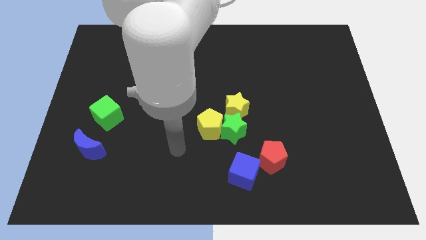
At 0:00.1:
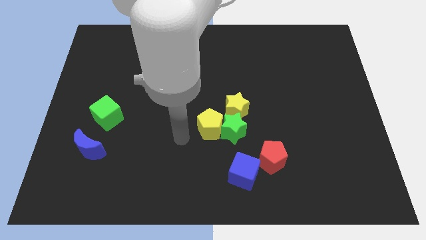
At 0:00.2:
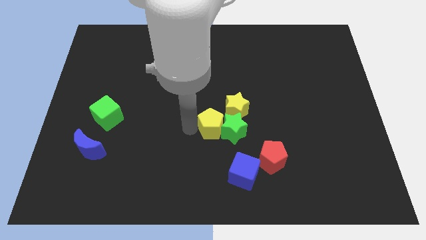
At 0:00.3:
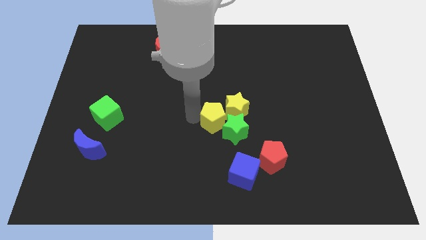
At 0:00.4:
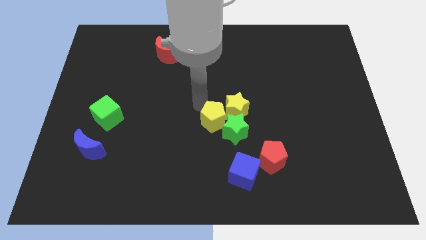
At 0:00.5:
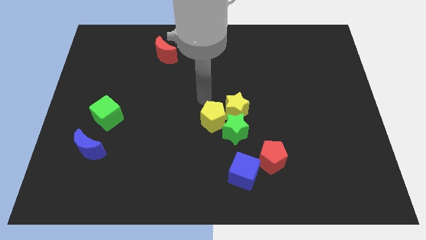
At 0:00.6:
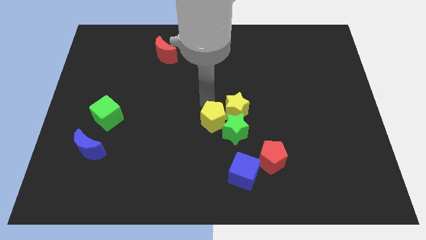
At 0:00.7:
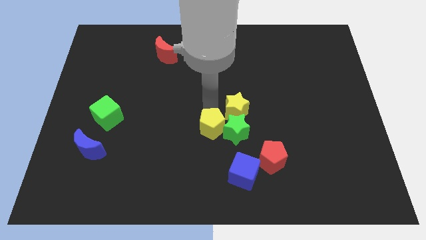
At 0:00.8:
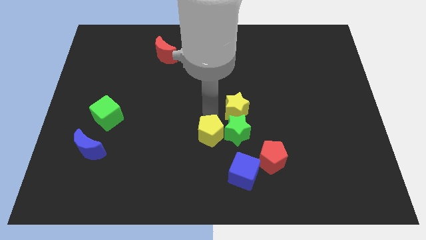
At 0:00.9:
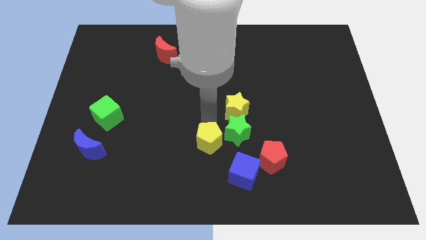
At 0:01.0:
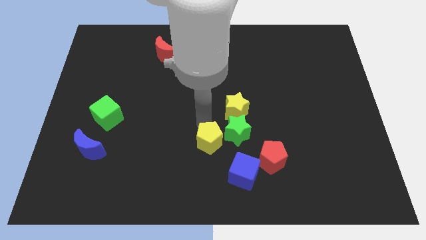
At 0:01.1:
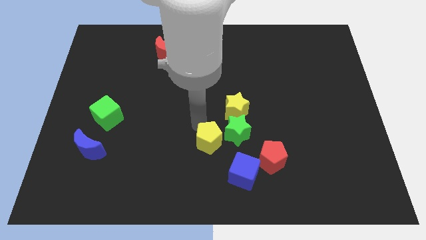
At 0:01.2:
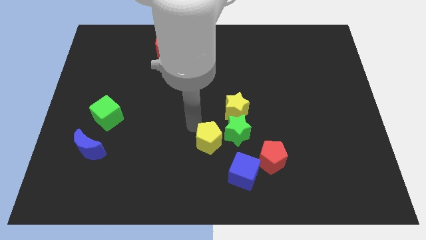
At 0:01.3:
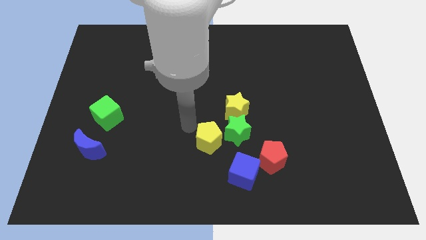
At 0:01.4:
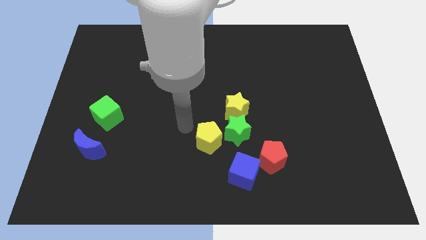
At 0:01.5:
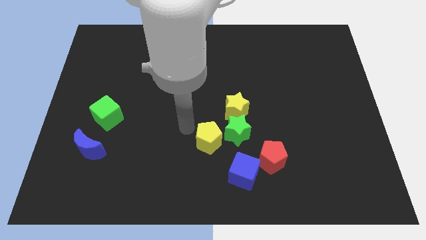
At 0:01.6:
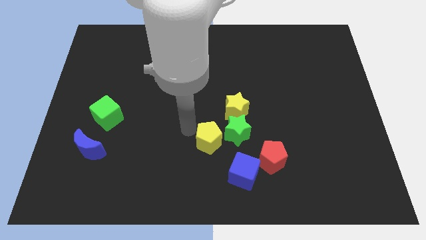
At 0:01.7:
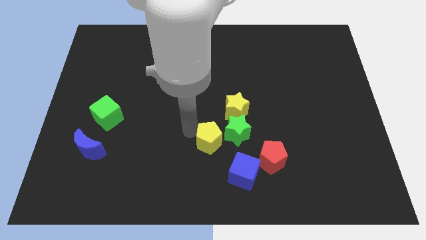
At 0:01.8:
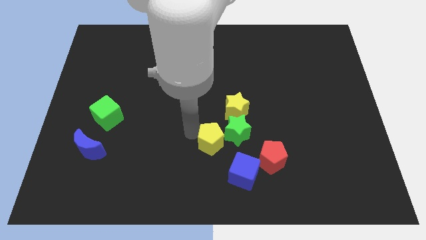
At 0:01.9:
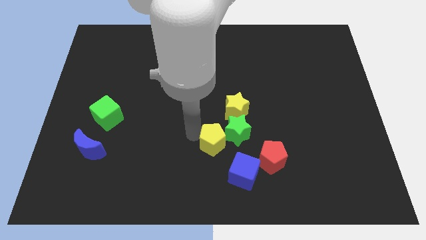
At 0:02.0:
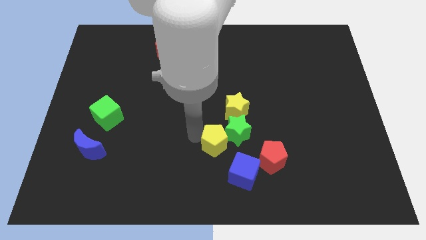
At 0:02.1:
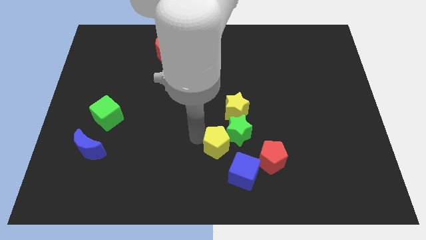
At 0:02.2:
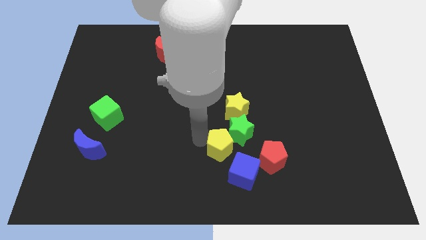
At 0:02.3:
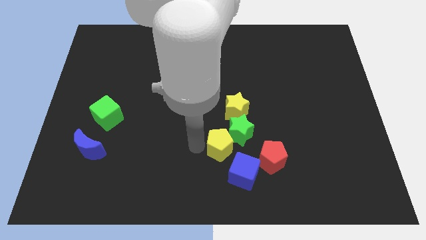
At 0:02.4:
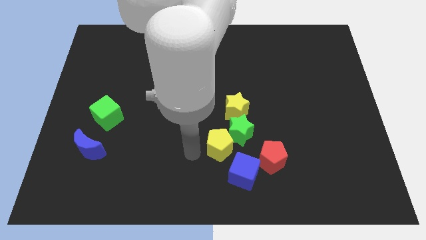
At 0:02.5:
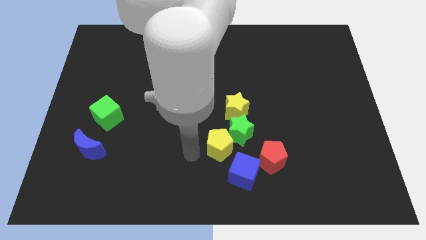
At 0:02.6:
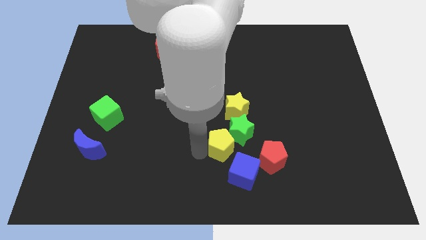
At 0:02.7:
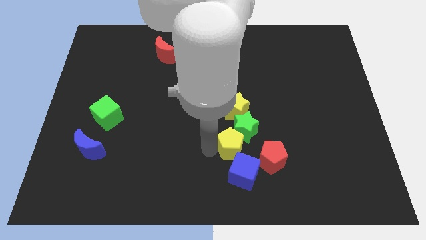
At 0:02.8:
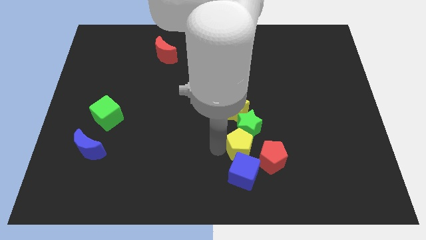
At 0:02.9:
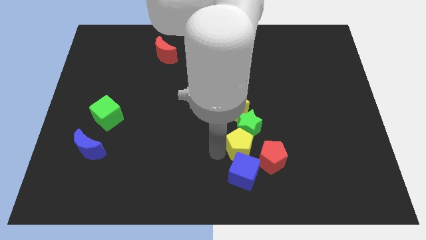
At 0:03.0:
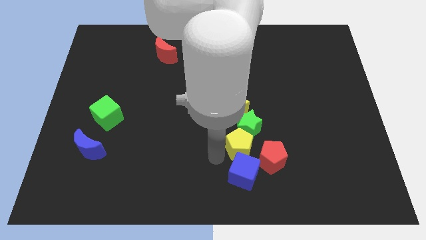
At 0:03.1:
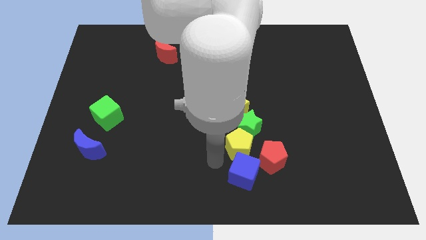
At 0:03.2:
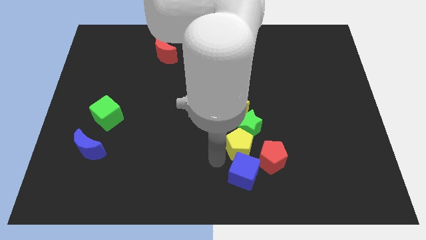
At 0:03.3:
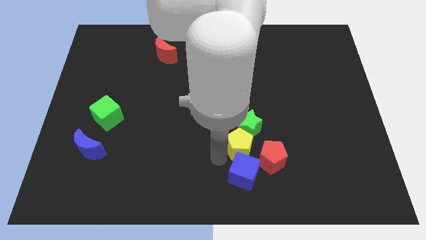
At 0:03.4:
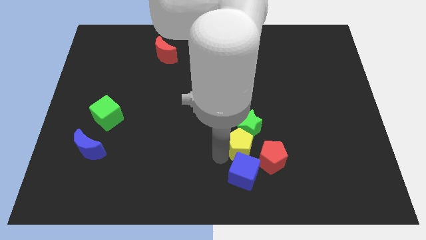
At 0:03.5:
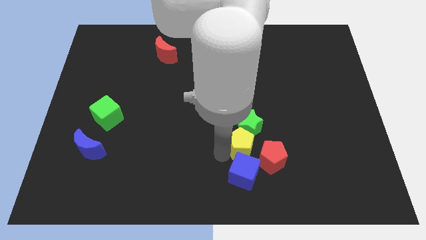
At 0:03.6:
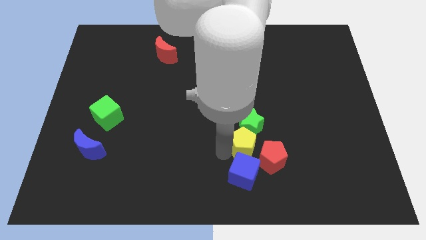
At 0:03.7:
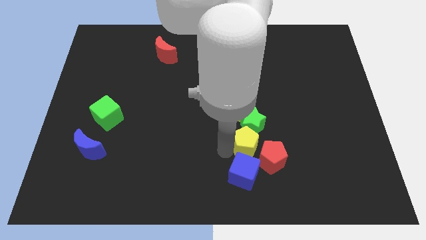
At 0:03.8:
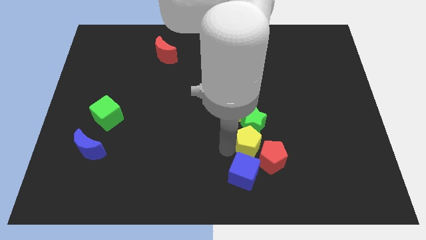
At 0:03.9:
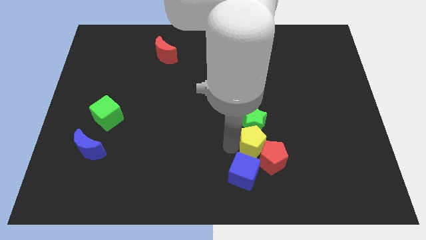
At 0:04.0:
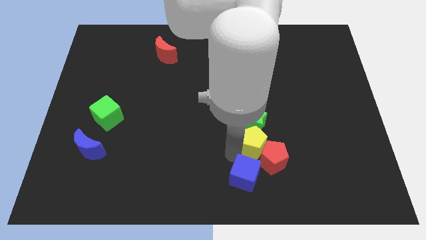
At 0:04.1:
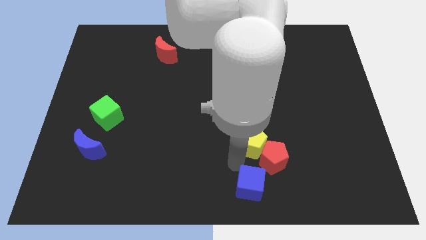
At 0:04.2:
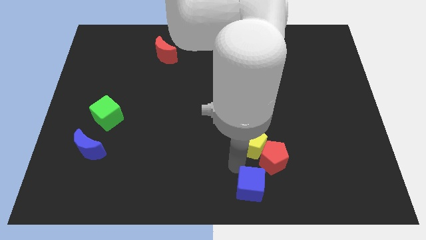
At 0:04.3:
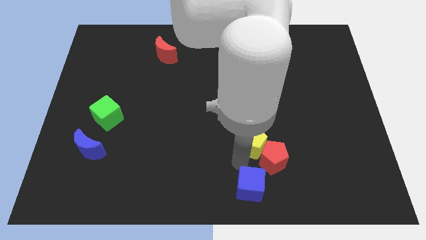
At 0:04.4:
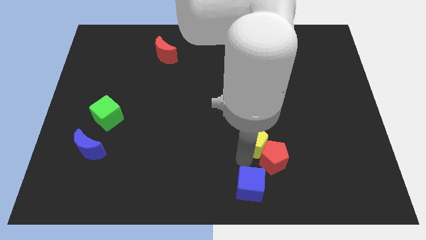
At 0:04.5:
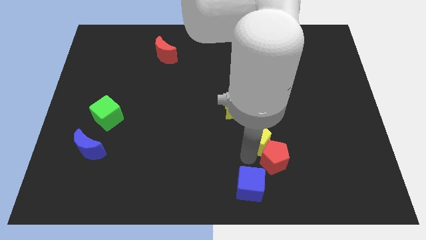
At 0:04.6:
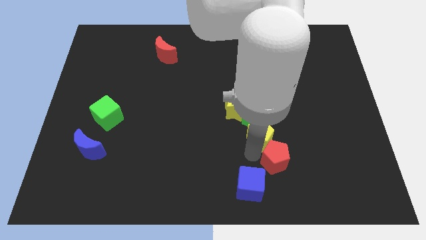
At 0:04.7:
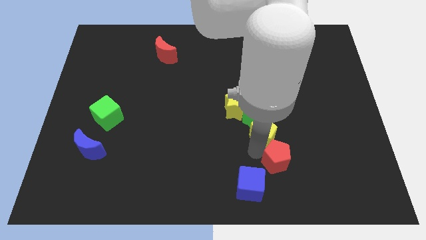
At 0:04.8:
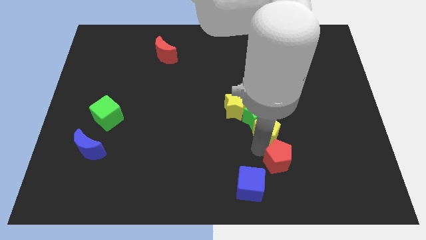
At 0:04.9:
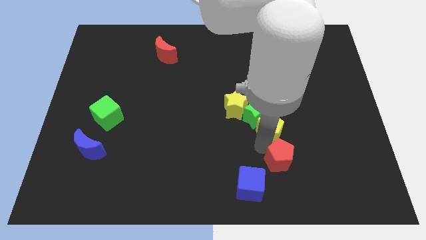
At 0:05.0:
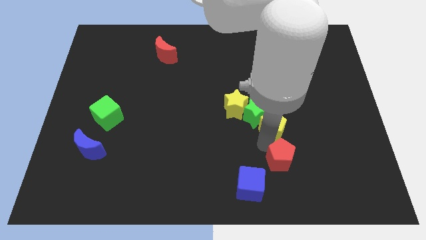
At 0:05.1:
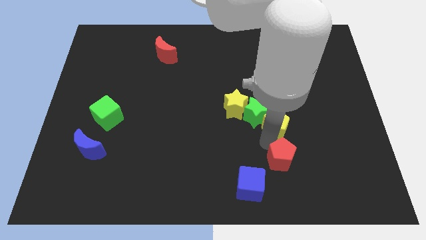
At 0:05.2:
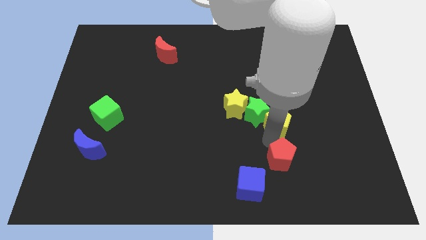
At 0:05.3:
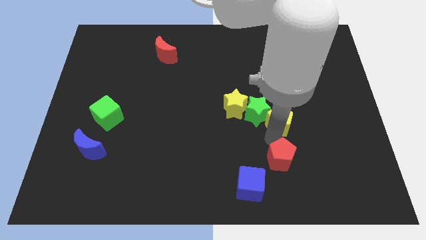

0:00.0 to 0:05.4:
push the yellow pentagon just right of the yellow star

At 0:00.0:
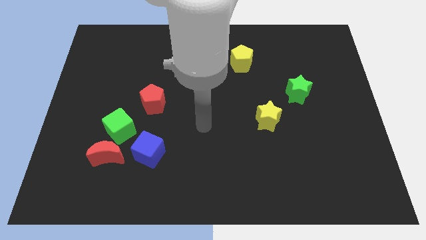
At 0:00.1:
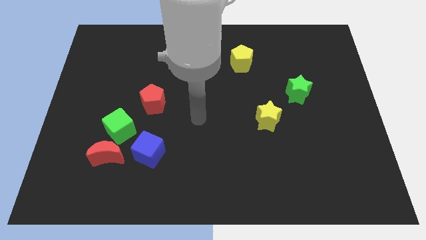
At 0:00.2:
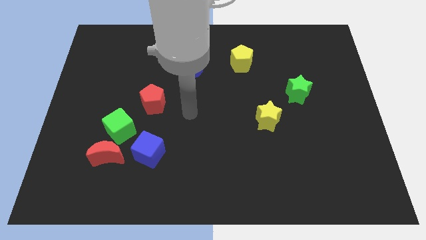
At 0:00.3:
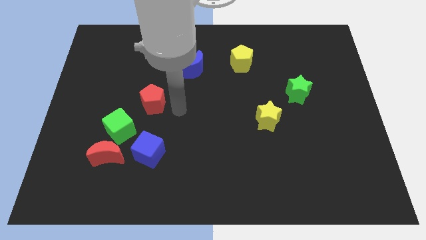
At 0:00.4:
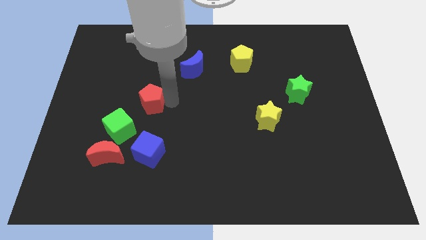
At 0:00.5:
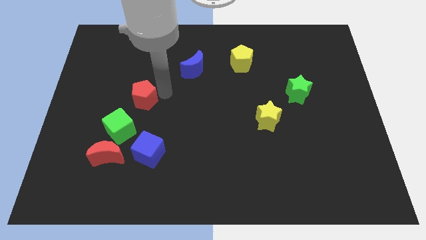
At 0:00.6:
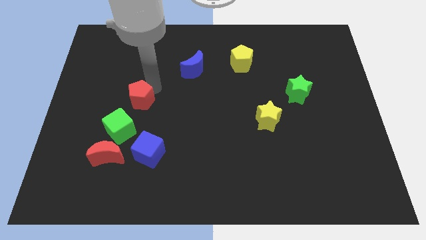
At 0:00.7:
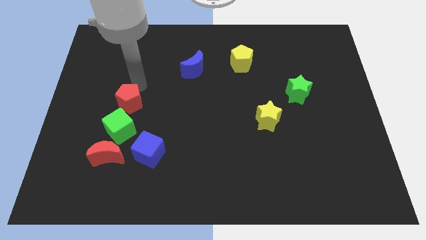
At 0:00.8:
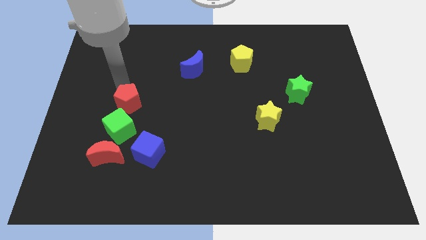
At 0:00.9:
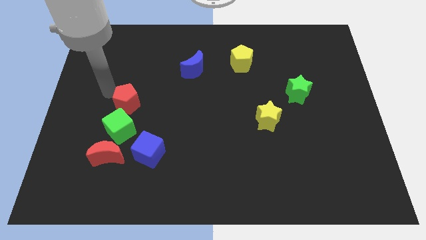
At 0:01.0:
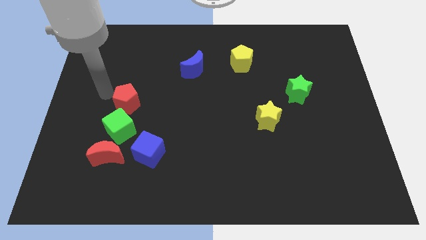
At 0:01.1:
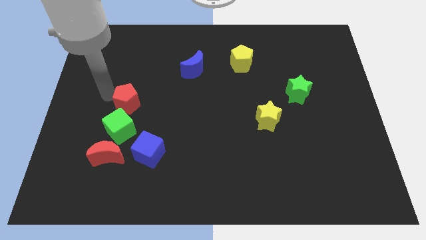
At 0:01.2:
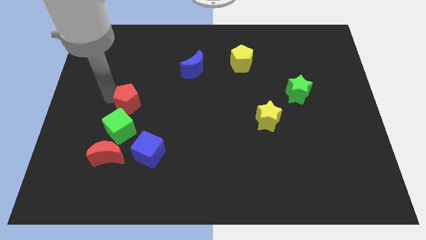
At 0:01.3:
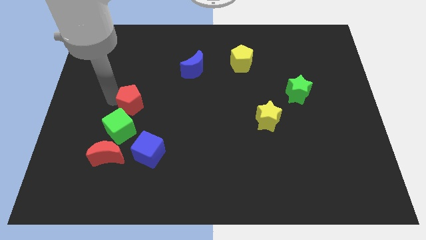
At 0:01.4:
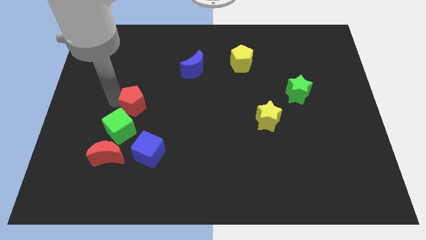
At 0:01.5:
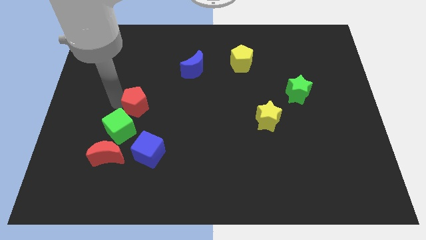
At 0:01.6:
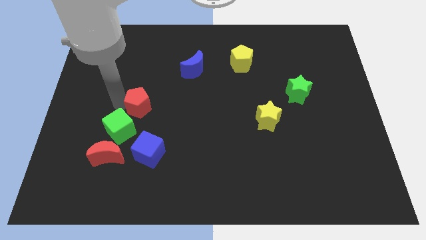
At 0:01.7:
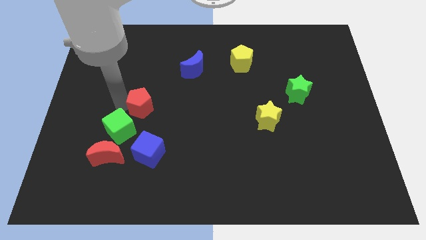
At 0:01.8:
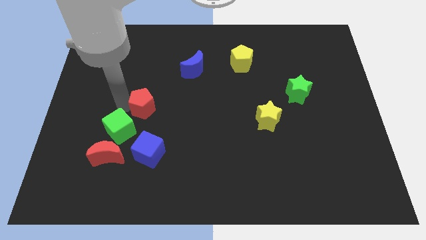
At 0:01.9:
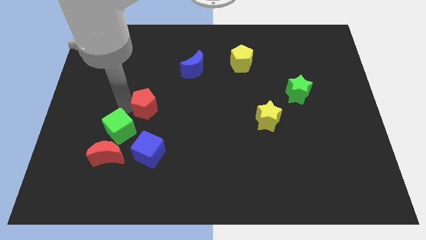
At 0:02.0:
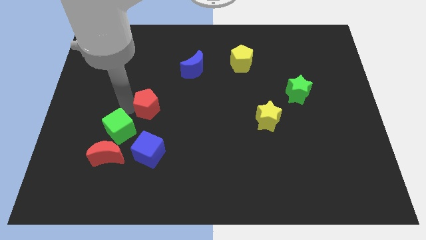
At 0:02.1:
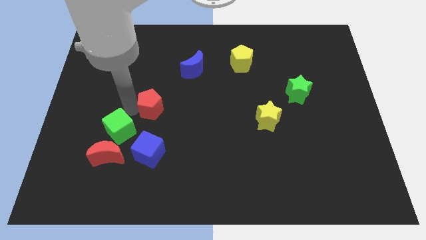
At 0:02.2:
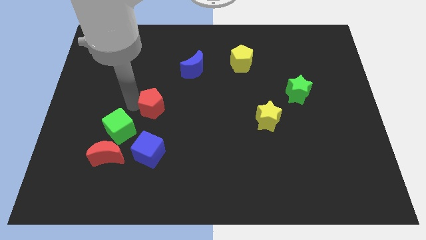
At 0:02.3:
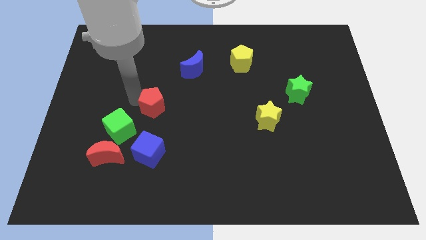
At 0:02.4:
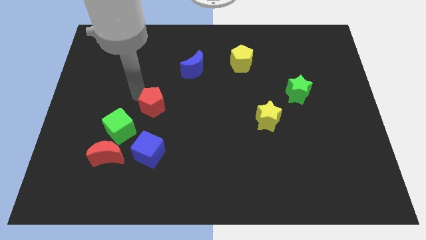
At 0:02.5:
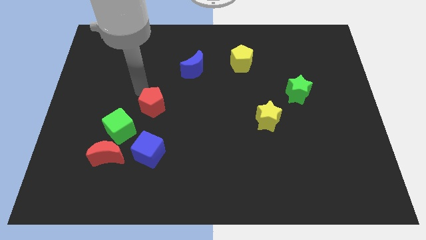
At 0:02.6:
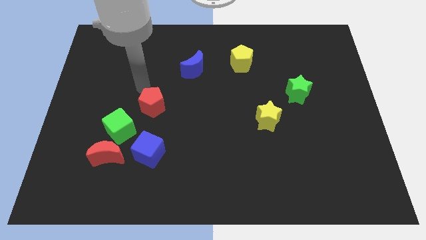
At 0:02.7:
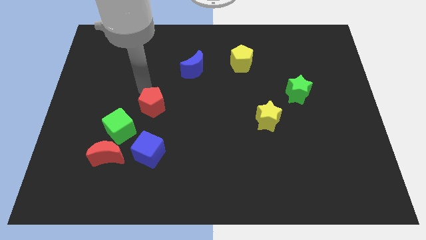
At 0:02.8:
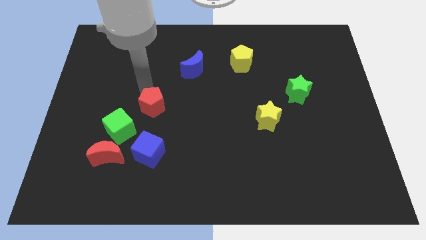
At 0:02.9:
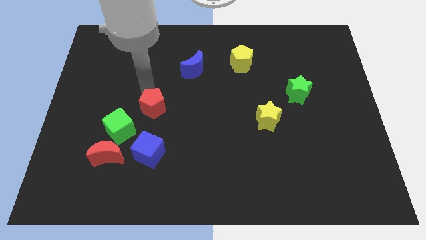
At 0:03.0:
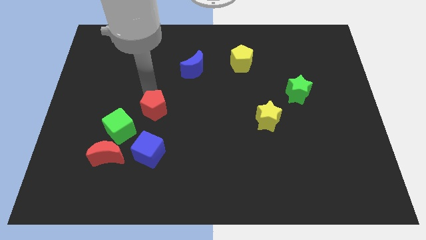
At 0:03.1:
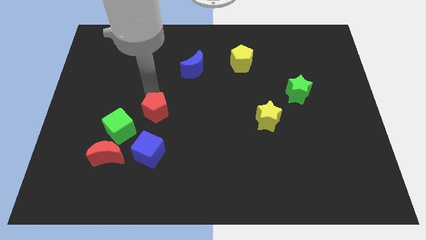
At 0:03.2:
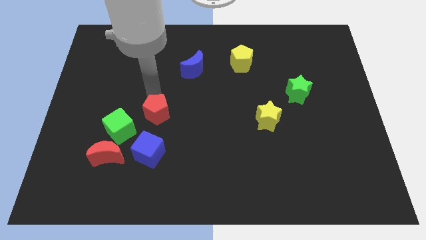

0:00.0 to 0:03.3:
put the red pentagon to the right of the green cube
